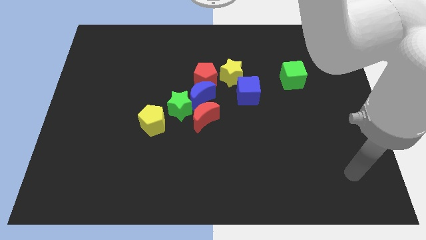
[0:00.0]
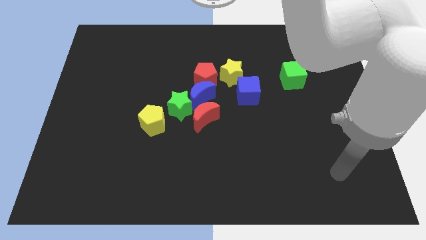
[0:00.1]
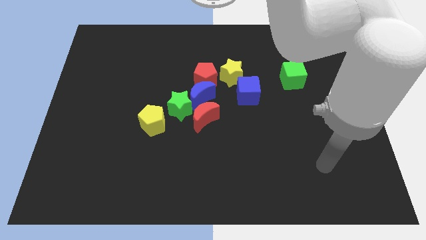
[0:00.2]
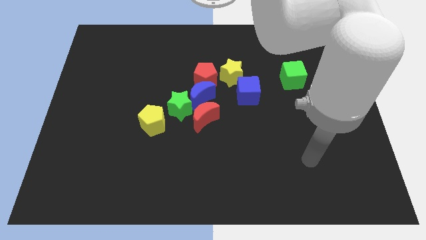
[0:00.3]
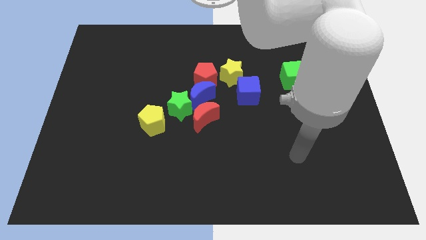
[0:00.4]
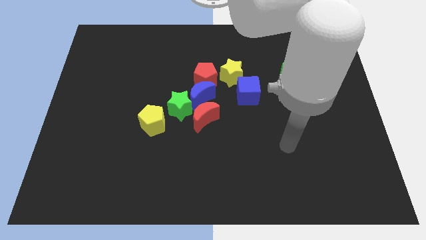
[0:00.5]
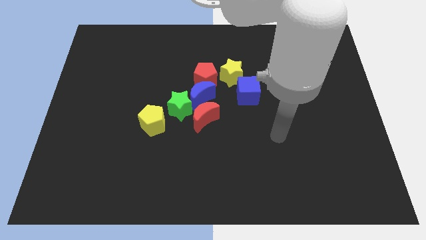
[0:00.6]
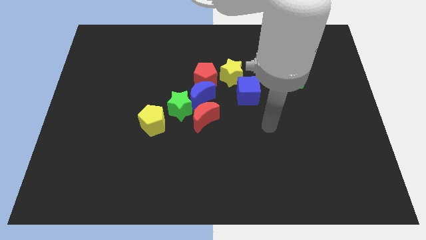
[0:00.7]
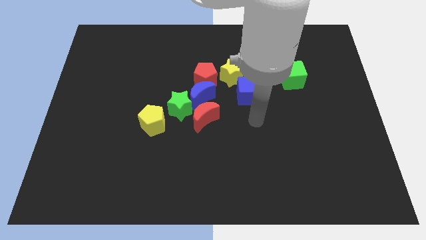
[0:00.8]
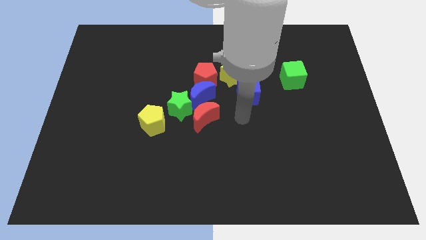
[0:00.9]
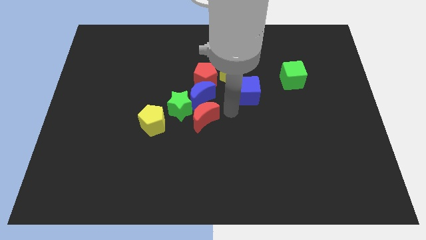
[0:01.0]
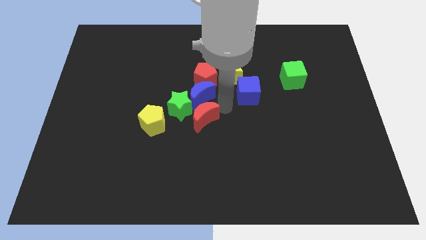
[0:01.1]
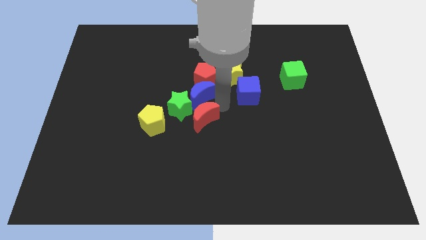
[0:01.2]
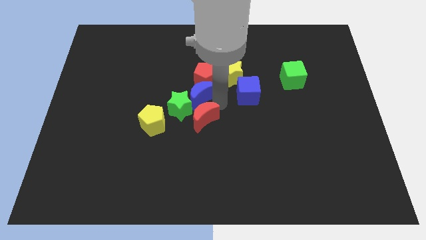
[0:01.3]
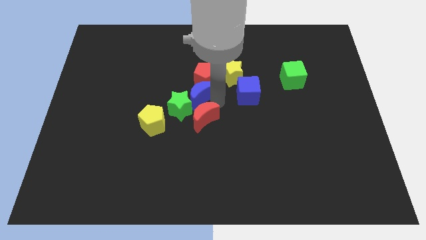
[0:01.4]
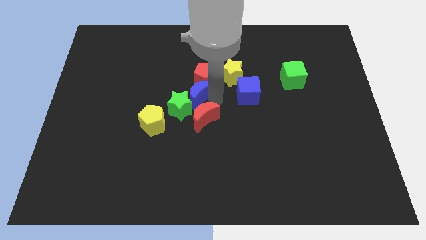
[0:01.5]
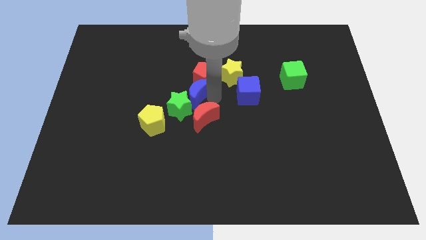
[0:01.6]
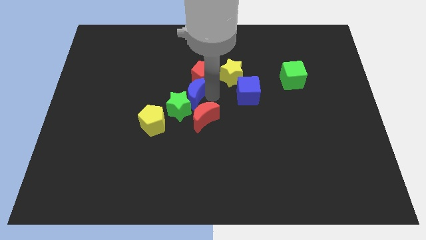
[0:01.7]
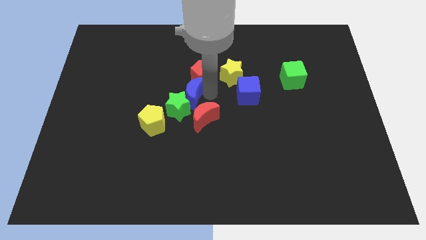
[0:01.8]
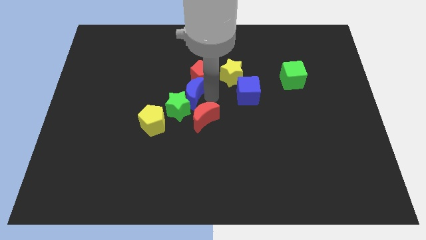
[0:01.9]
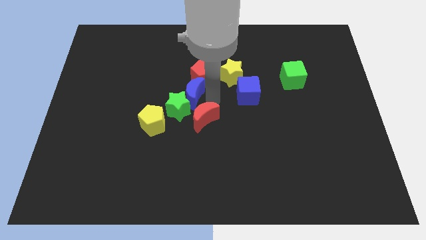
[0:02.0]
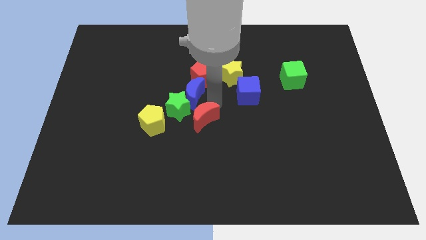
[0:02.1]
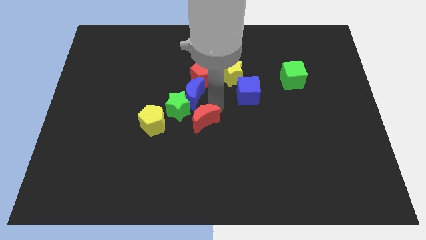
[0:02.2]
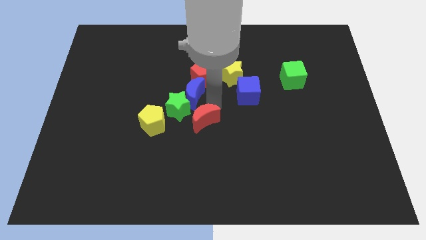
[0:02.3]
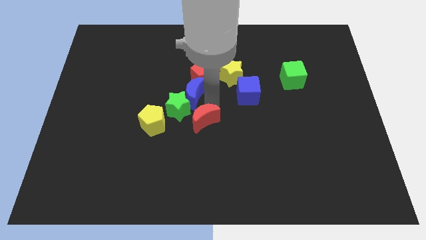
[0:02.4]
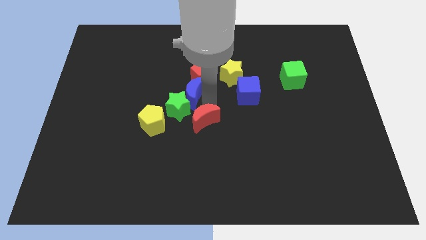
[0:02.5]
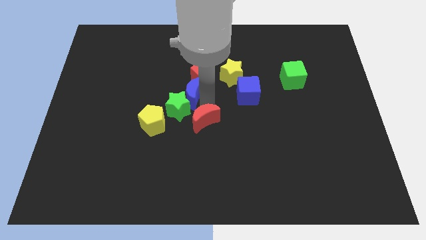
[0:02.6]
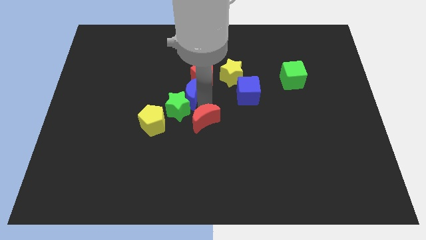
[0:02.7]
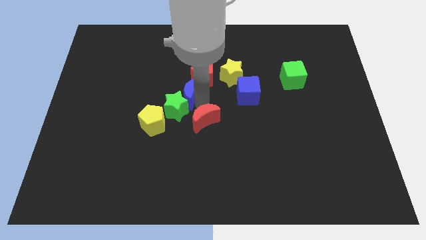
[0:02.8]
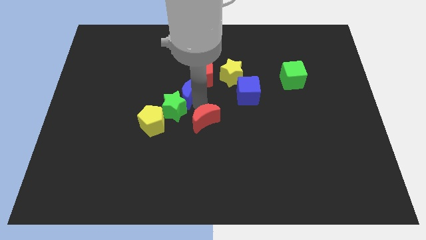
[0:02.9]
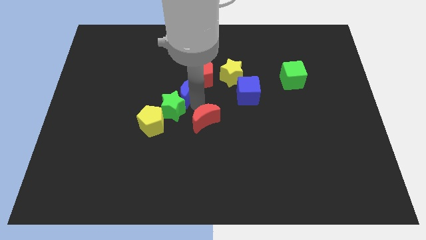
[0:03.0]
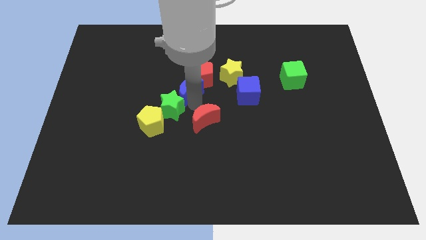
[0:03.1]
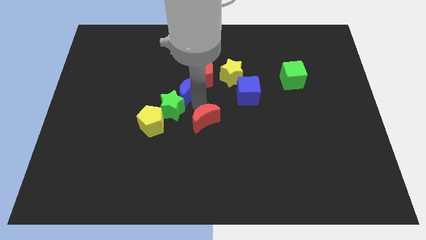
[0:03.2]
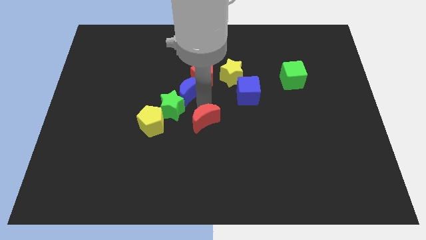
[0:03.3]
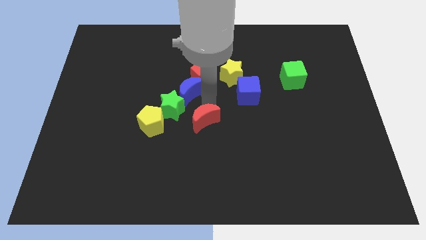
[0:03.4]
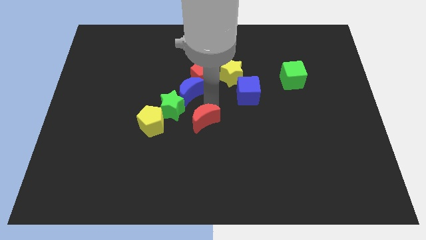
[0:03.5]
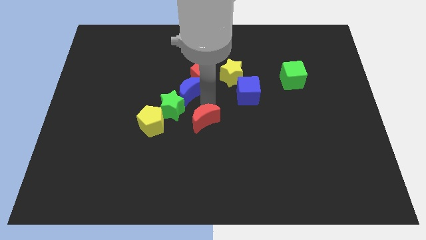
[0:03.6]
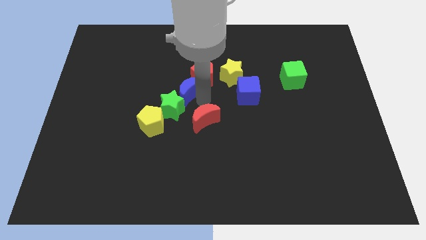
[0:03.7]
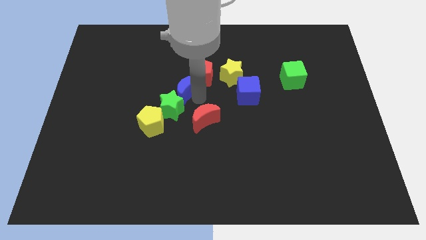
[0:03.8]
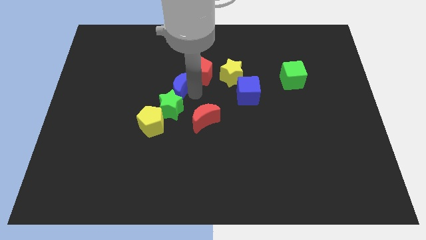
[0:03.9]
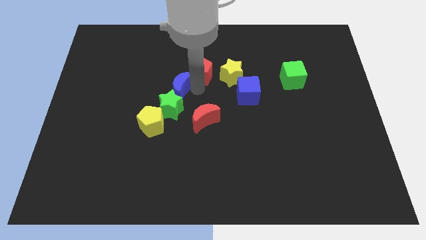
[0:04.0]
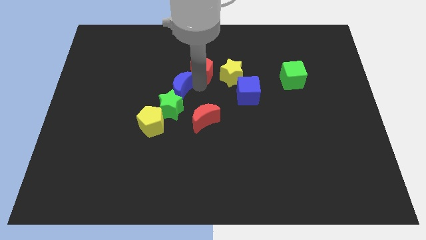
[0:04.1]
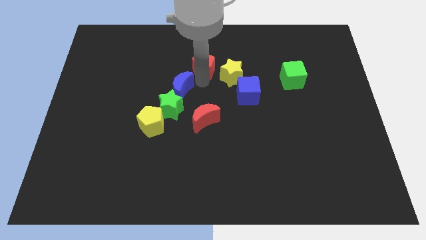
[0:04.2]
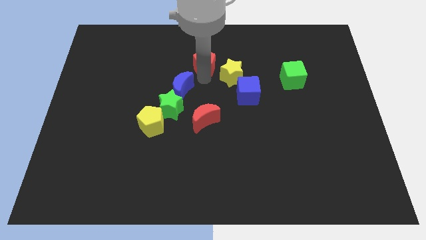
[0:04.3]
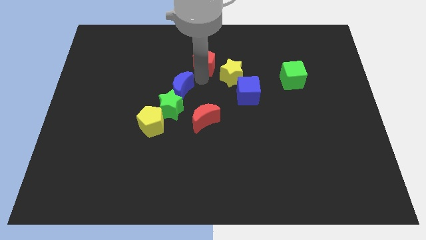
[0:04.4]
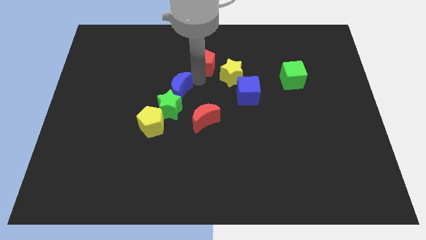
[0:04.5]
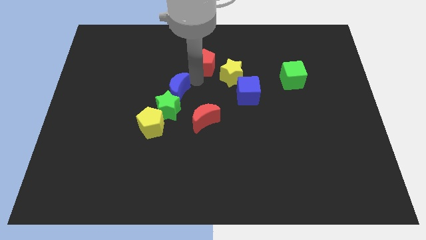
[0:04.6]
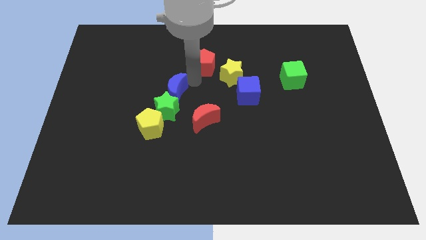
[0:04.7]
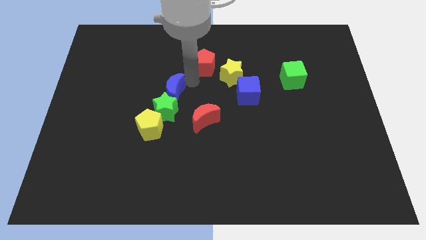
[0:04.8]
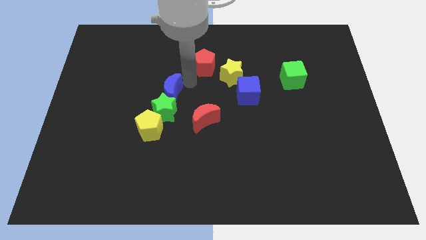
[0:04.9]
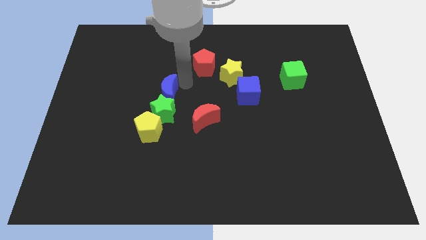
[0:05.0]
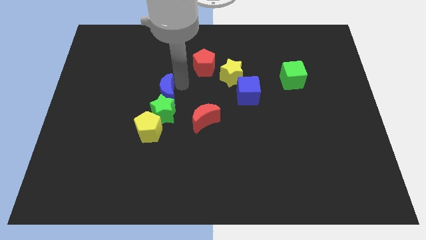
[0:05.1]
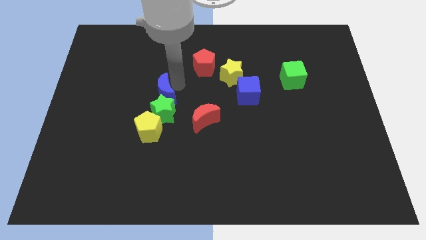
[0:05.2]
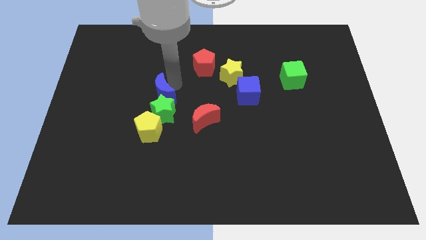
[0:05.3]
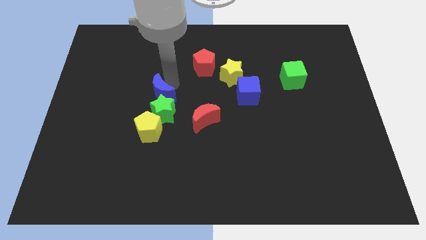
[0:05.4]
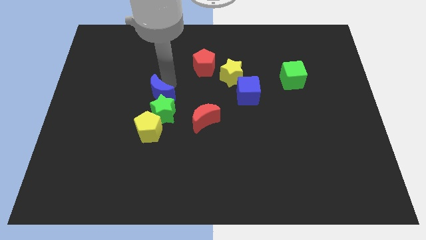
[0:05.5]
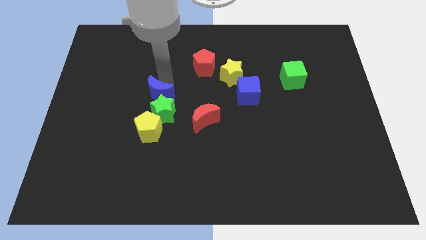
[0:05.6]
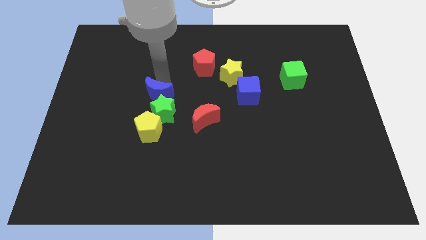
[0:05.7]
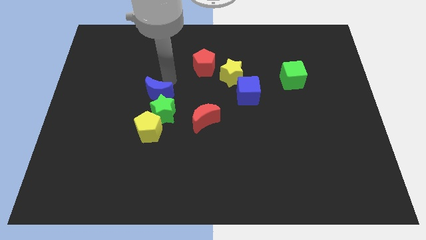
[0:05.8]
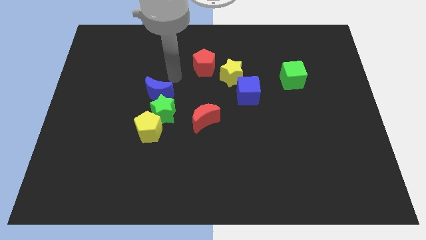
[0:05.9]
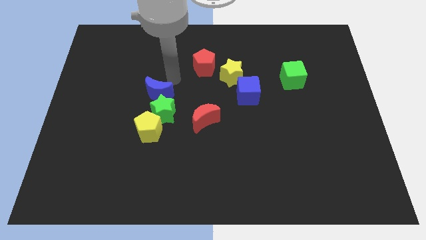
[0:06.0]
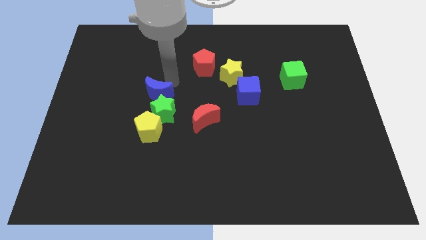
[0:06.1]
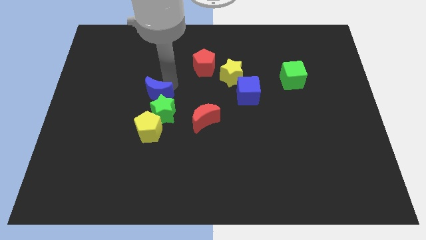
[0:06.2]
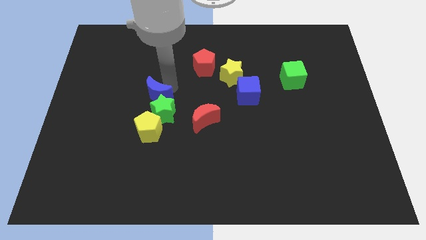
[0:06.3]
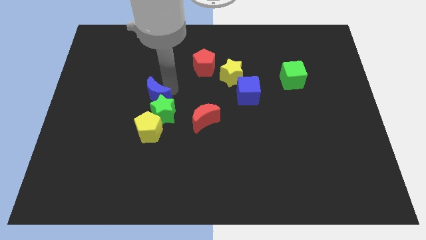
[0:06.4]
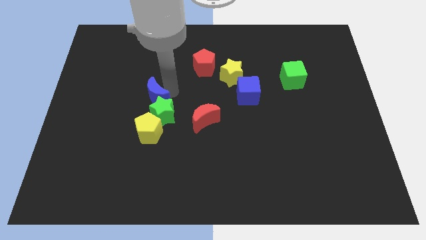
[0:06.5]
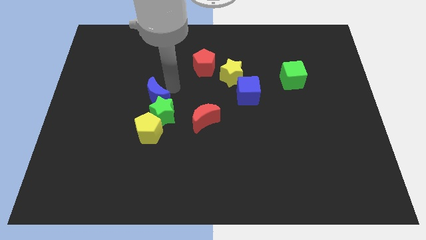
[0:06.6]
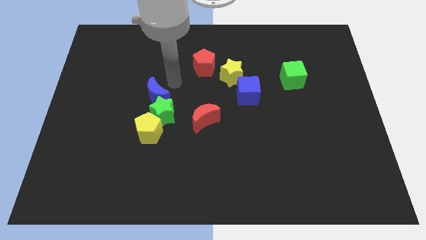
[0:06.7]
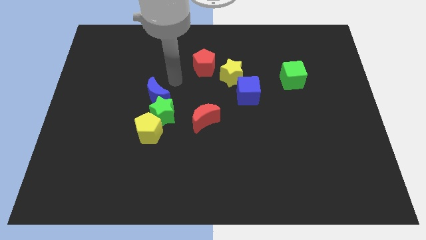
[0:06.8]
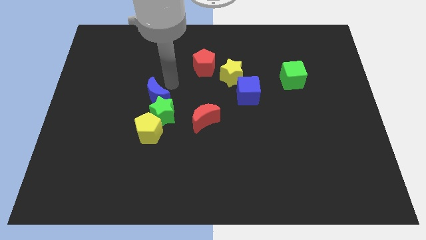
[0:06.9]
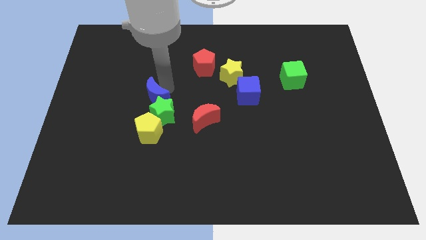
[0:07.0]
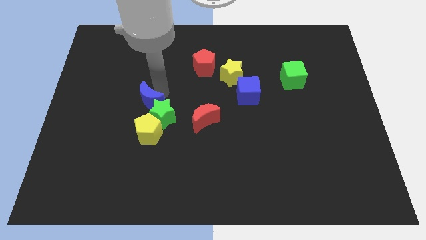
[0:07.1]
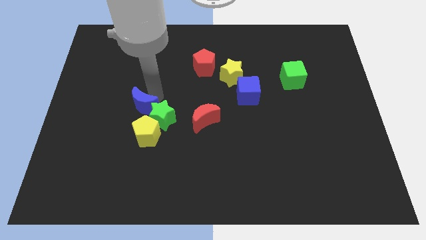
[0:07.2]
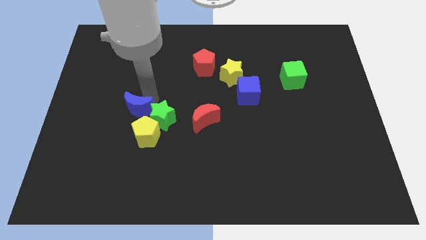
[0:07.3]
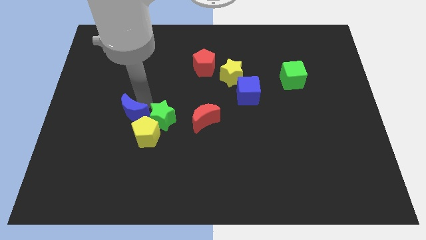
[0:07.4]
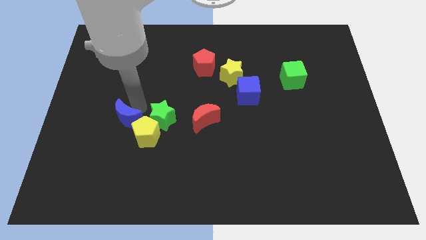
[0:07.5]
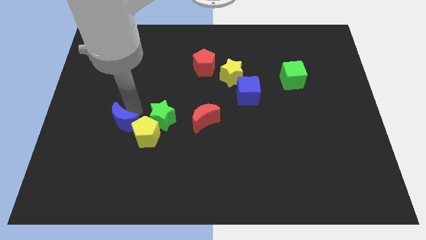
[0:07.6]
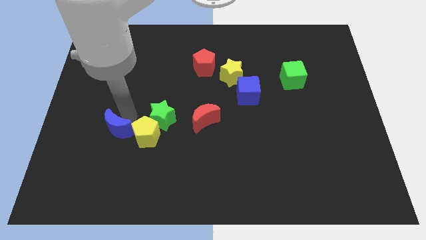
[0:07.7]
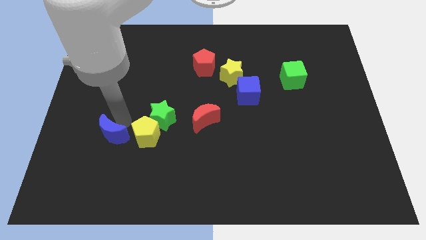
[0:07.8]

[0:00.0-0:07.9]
slide the blue moon downwards and left diagonally
